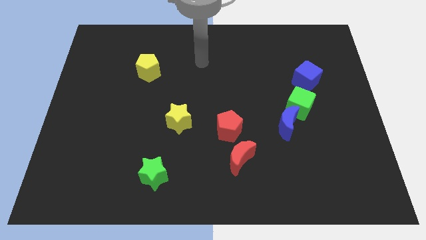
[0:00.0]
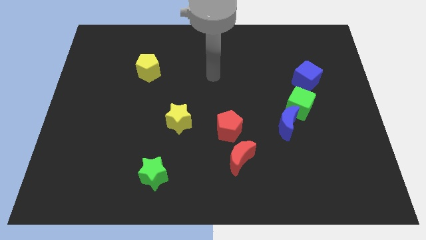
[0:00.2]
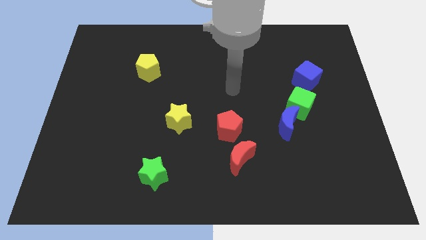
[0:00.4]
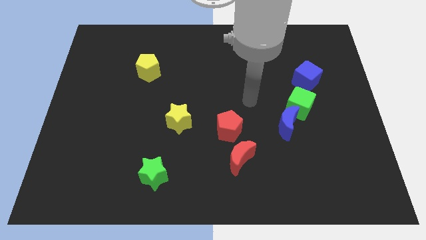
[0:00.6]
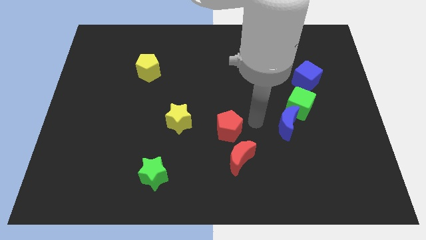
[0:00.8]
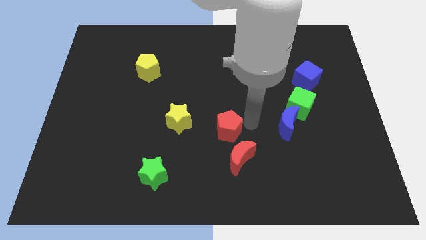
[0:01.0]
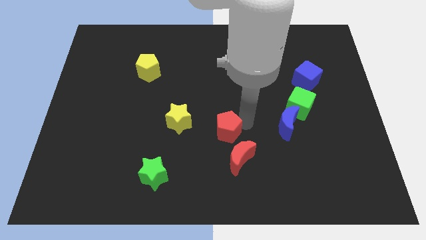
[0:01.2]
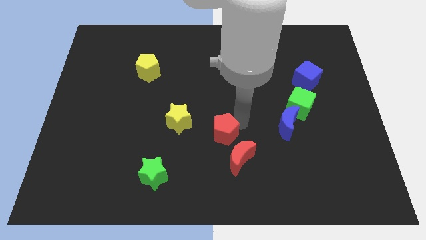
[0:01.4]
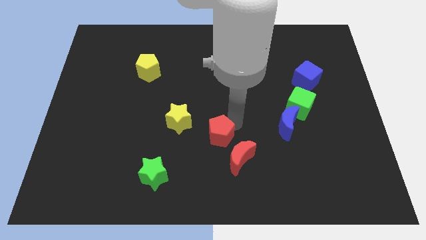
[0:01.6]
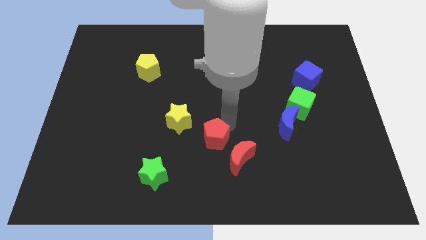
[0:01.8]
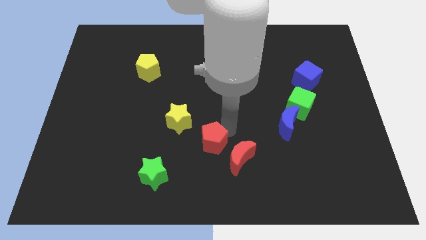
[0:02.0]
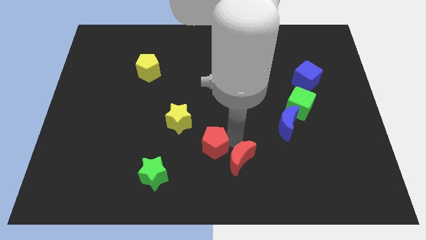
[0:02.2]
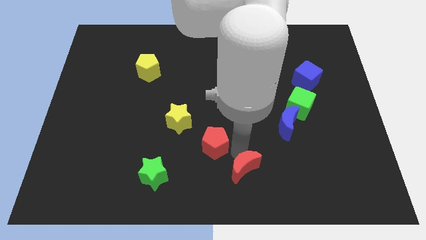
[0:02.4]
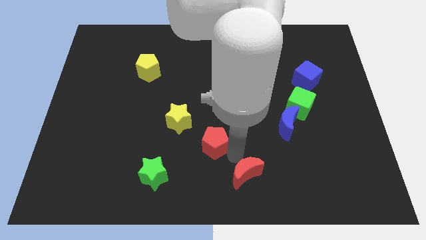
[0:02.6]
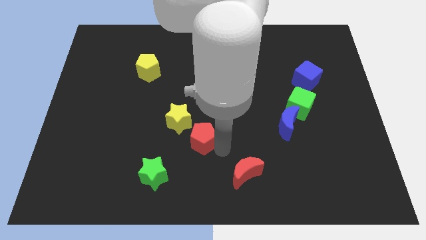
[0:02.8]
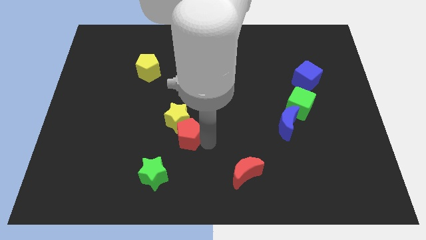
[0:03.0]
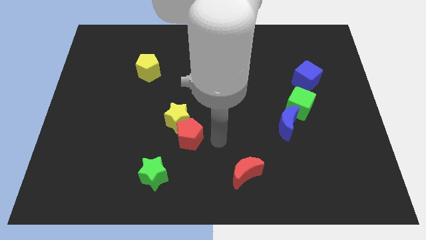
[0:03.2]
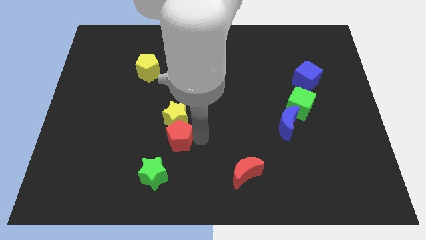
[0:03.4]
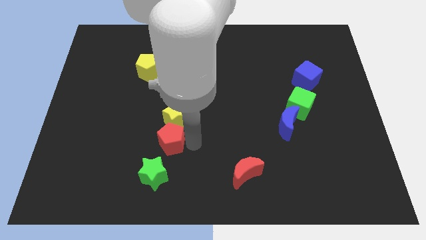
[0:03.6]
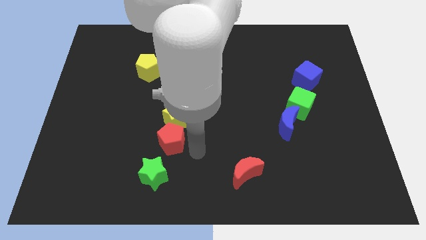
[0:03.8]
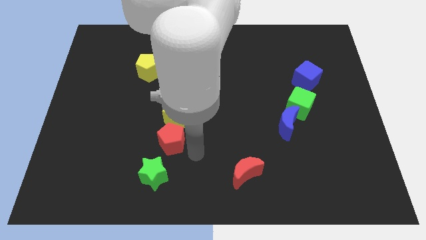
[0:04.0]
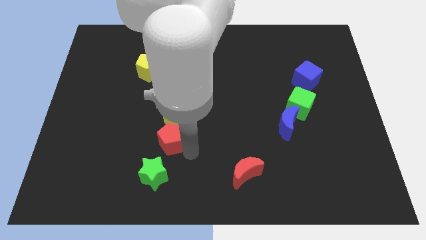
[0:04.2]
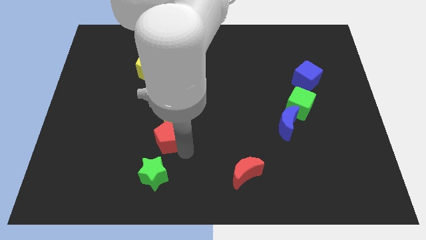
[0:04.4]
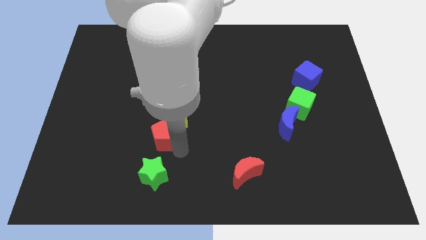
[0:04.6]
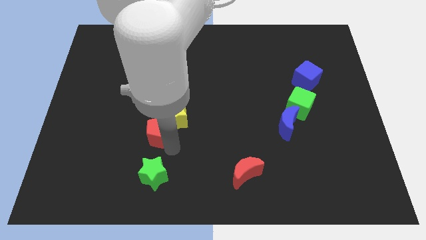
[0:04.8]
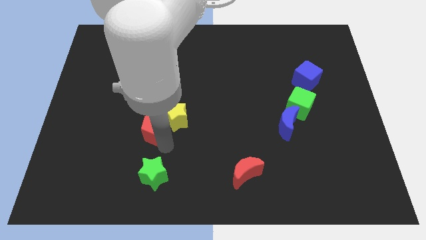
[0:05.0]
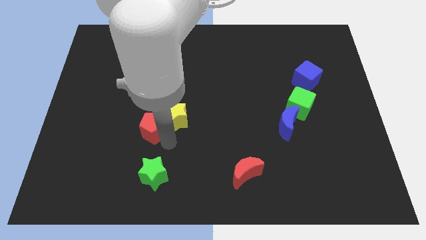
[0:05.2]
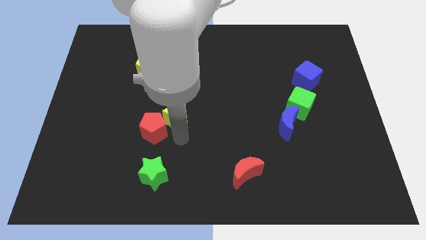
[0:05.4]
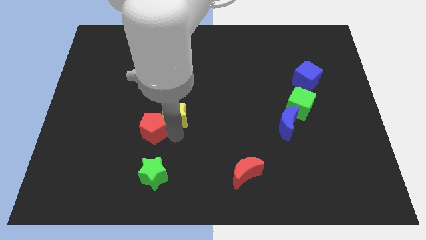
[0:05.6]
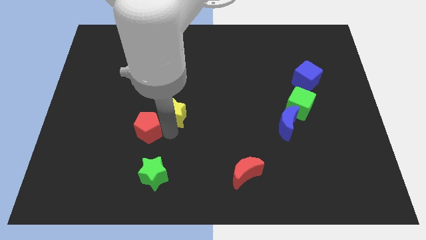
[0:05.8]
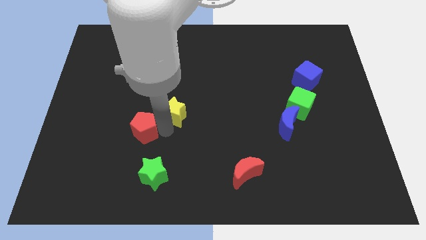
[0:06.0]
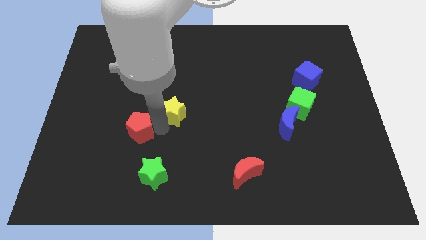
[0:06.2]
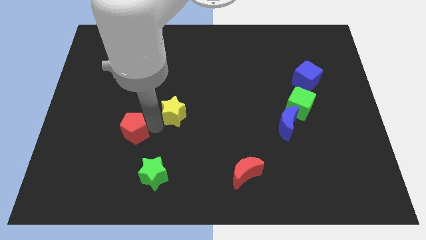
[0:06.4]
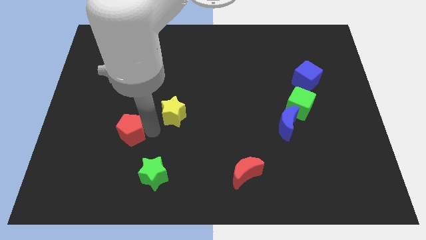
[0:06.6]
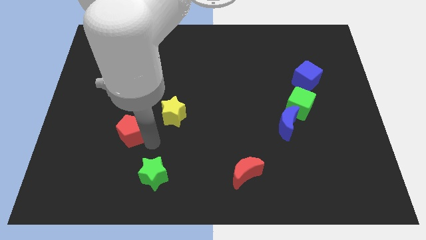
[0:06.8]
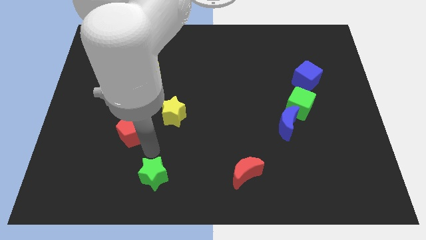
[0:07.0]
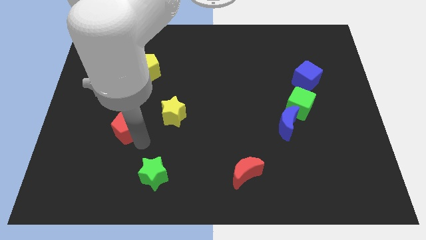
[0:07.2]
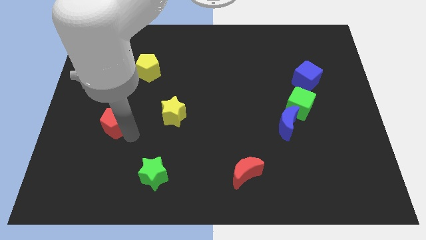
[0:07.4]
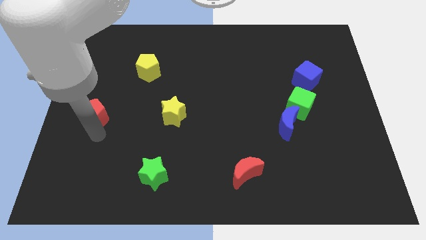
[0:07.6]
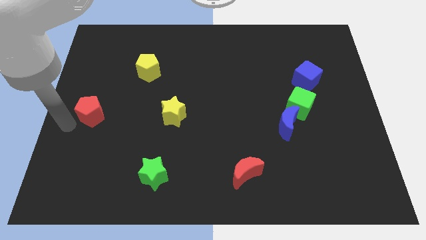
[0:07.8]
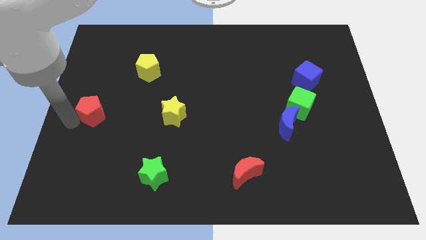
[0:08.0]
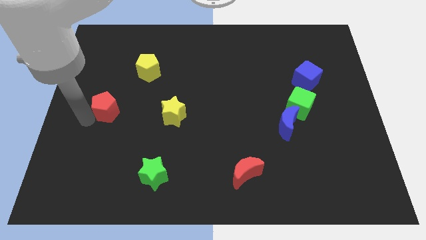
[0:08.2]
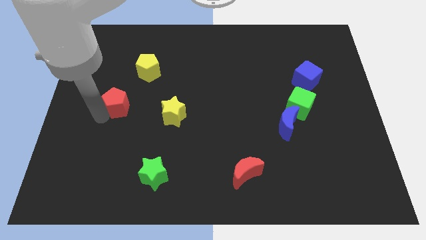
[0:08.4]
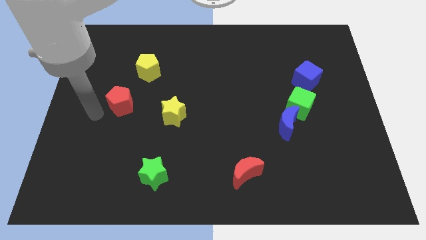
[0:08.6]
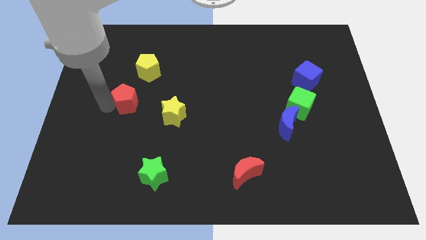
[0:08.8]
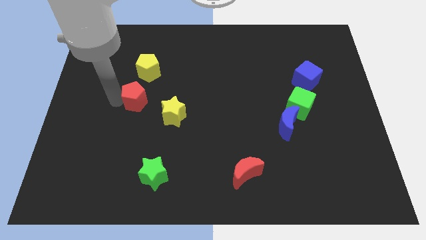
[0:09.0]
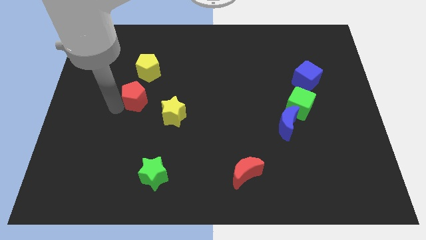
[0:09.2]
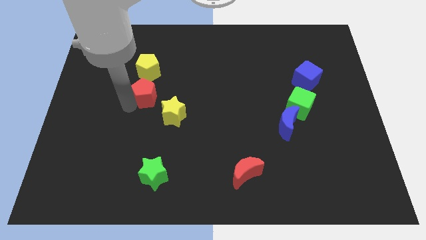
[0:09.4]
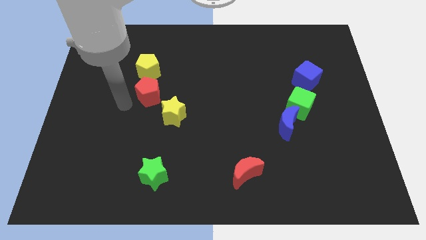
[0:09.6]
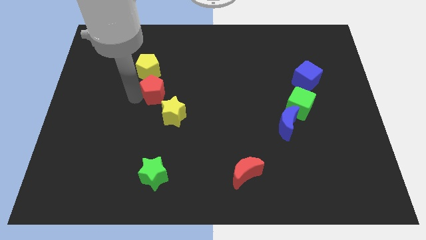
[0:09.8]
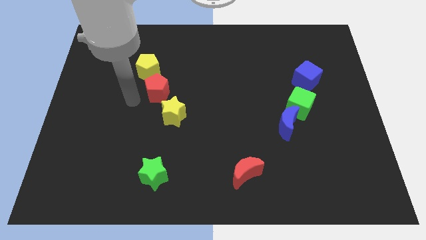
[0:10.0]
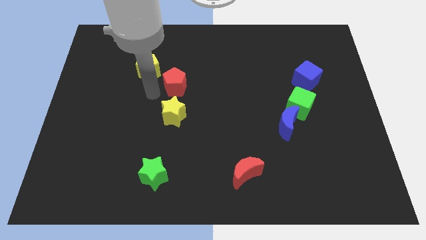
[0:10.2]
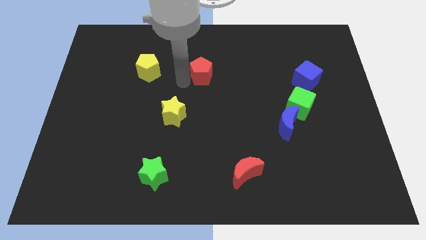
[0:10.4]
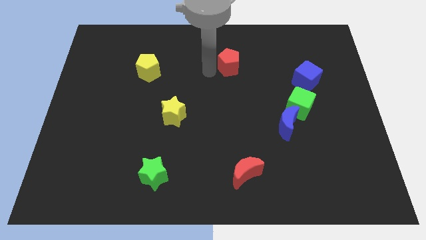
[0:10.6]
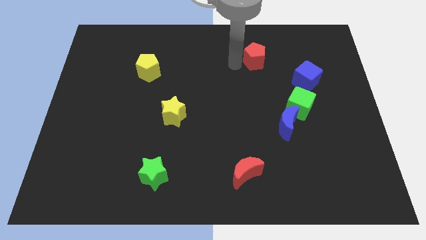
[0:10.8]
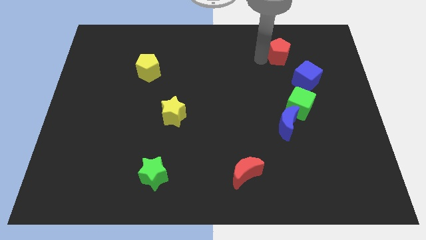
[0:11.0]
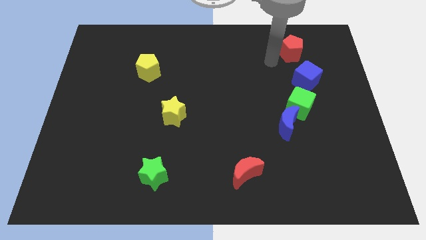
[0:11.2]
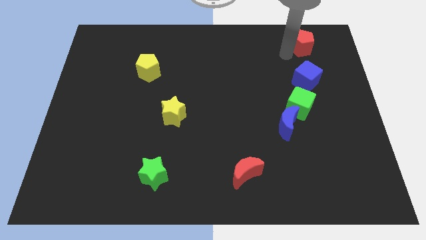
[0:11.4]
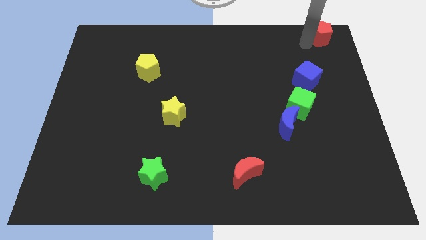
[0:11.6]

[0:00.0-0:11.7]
push the red pentagon to the top right corner
